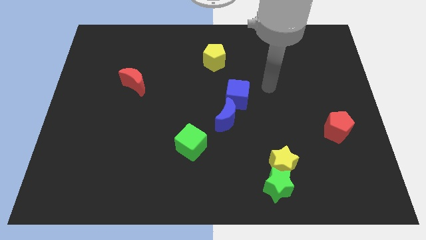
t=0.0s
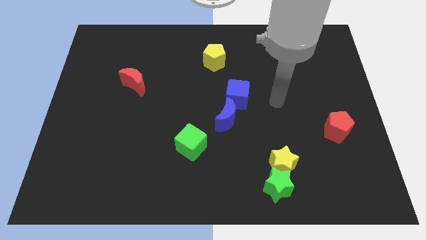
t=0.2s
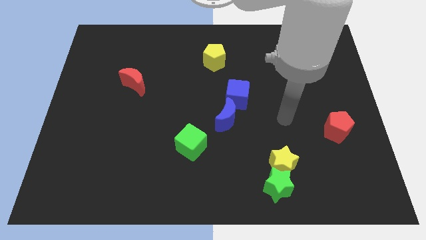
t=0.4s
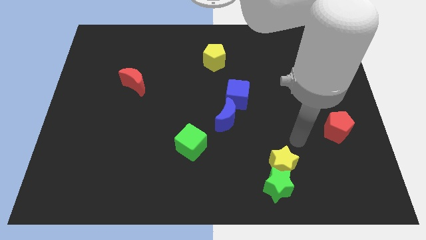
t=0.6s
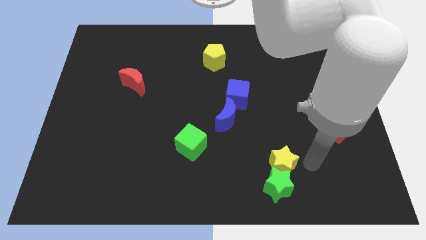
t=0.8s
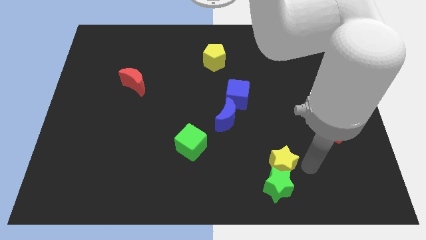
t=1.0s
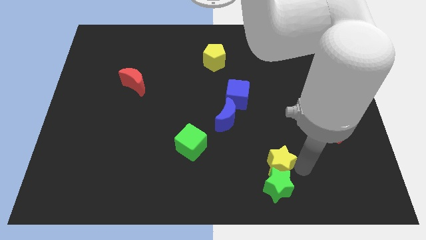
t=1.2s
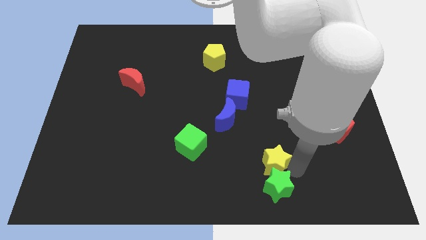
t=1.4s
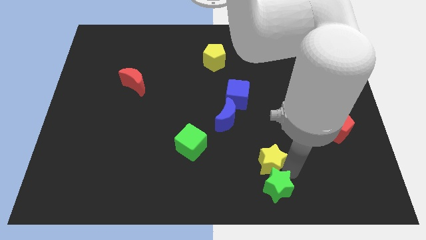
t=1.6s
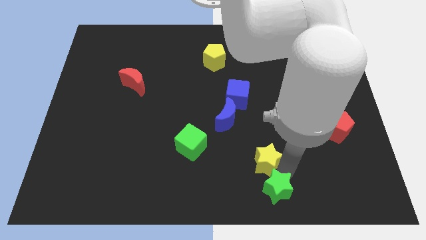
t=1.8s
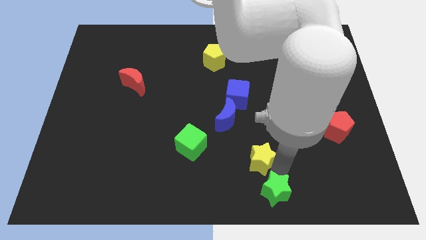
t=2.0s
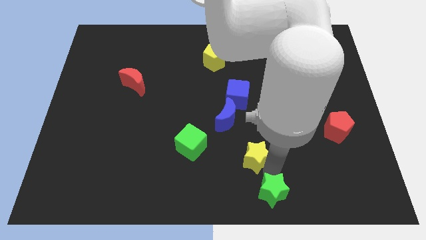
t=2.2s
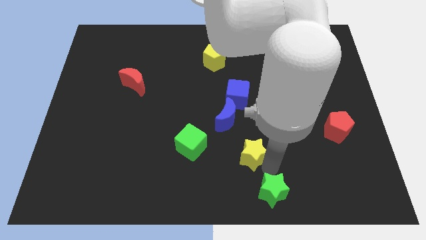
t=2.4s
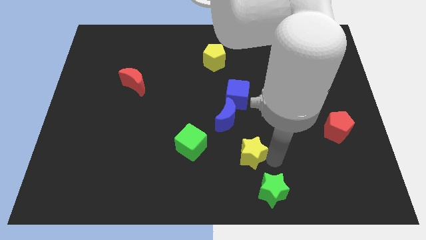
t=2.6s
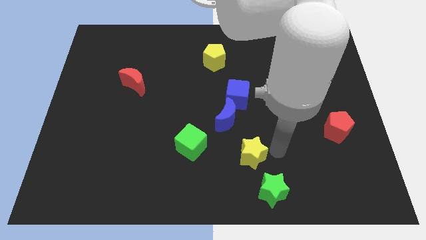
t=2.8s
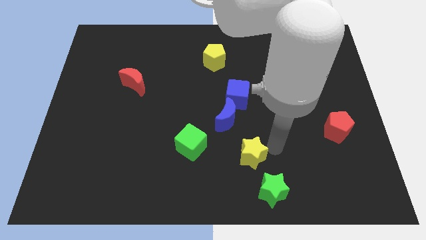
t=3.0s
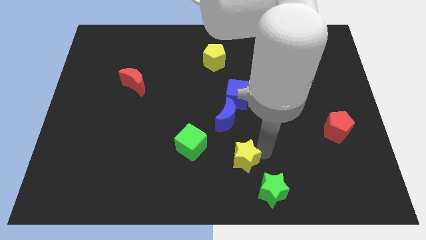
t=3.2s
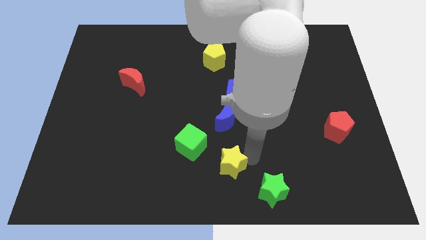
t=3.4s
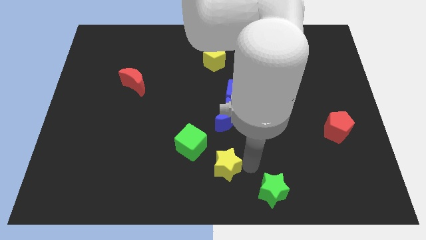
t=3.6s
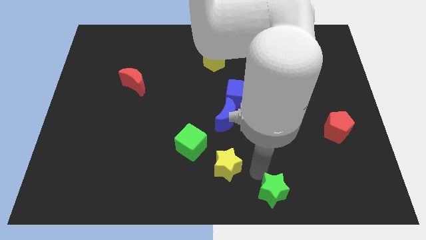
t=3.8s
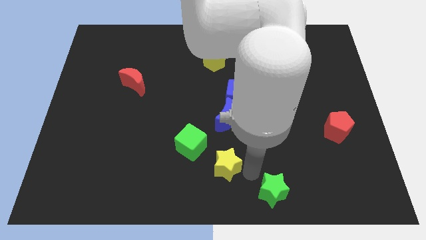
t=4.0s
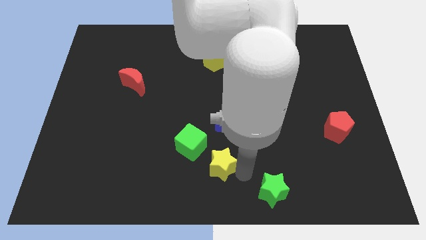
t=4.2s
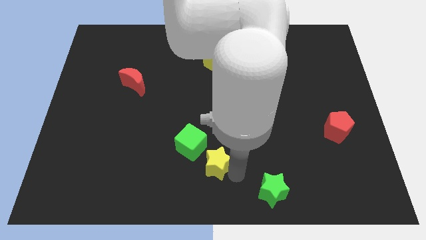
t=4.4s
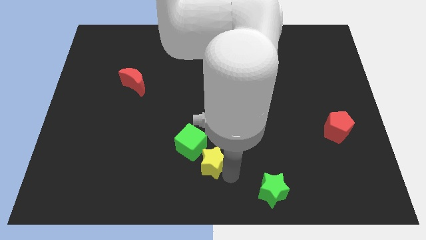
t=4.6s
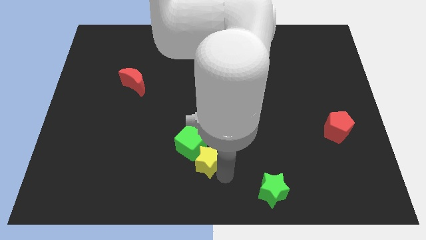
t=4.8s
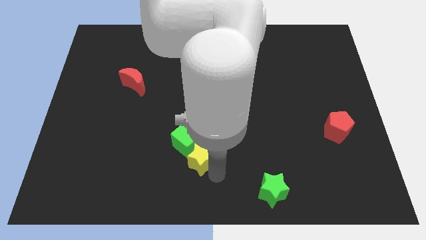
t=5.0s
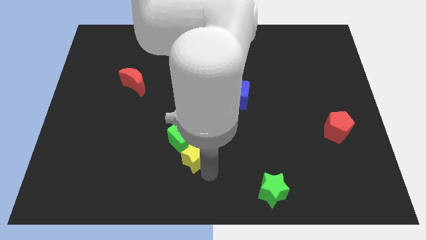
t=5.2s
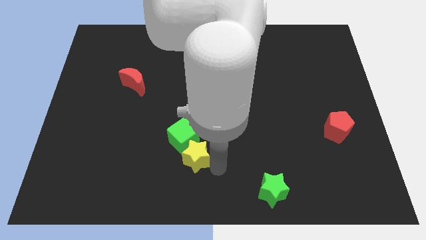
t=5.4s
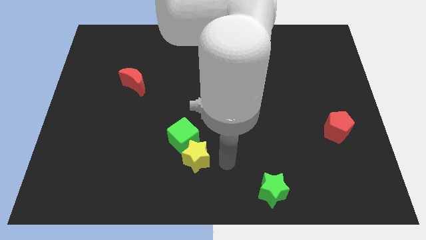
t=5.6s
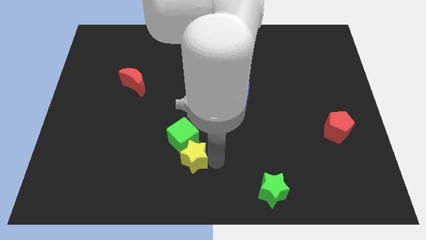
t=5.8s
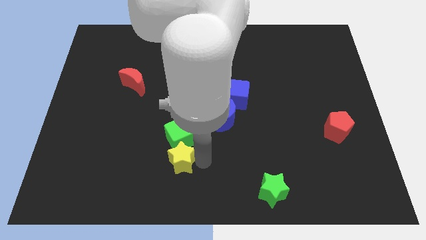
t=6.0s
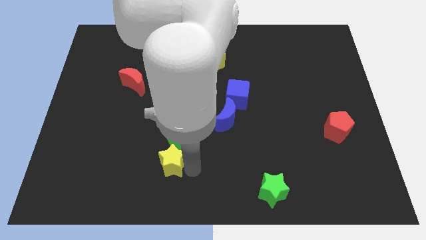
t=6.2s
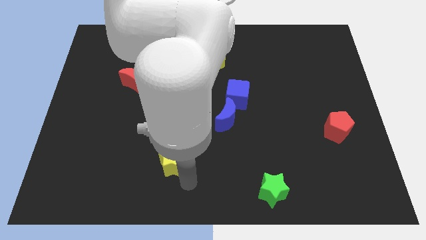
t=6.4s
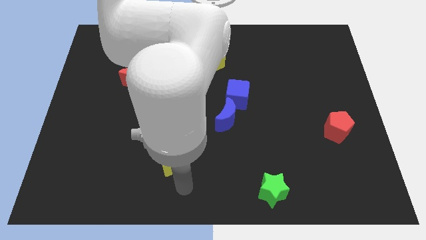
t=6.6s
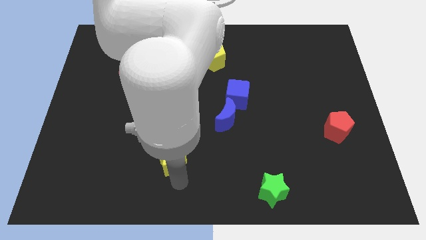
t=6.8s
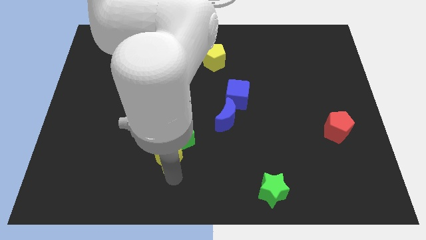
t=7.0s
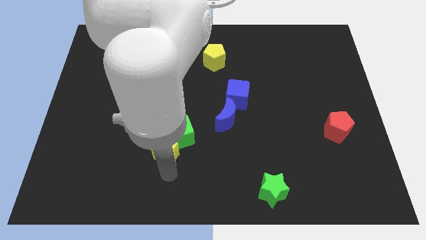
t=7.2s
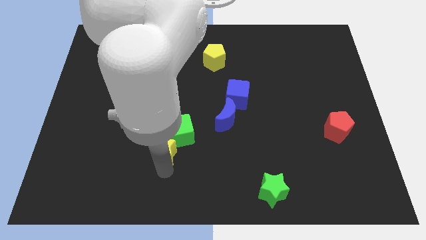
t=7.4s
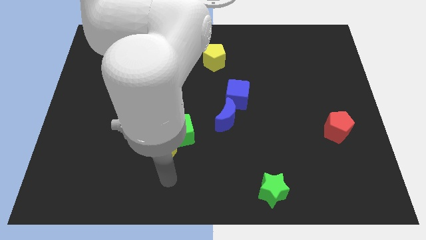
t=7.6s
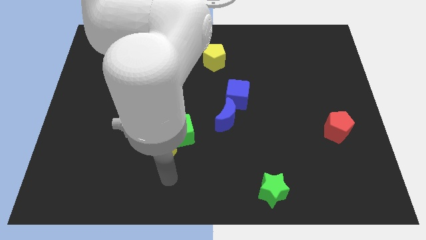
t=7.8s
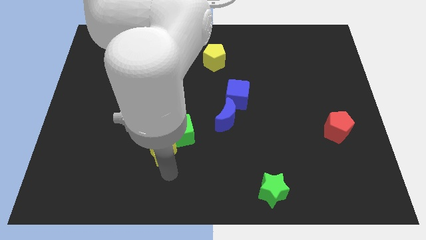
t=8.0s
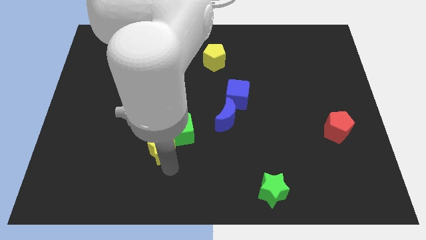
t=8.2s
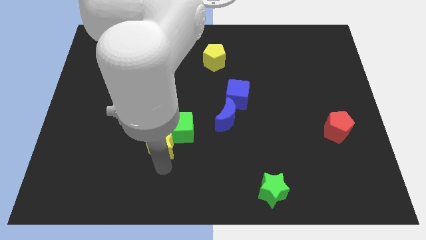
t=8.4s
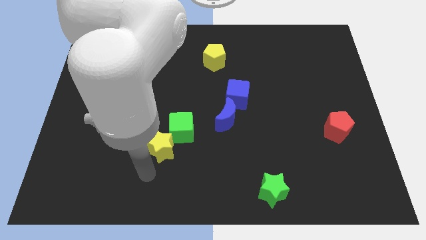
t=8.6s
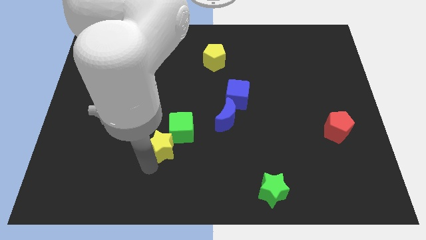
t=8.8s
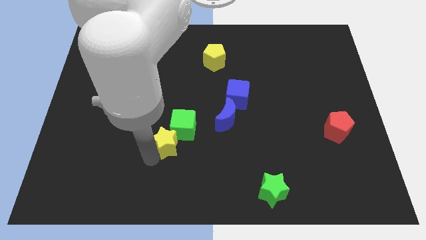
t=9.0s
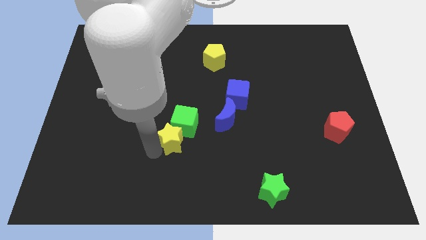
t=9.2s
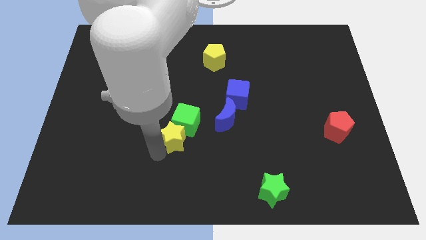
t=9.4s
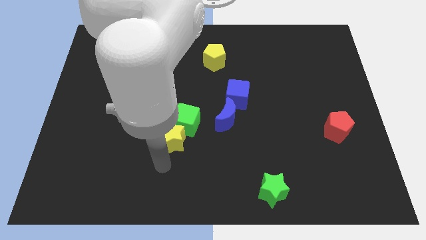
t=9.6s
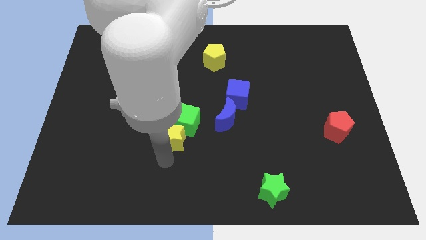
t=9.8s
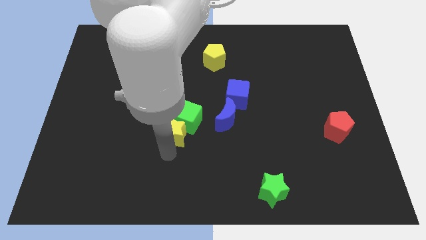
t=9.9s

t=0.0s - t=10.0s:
slide the yellow star to the left of the blue moon

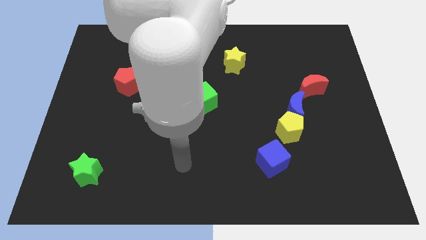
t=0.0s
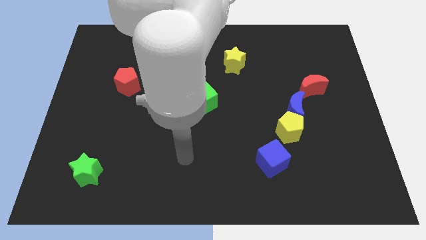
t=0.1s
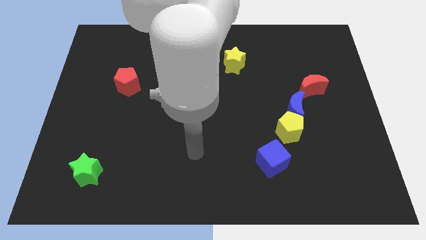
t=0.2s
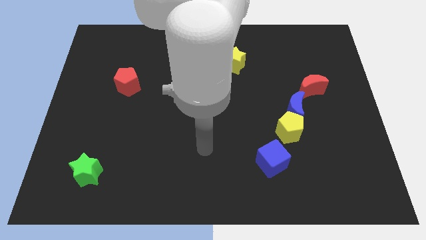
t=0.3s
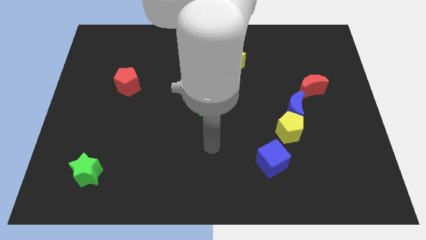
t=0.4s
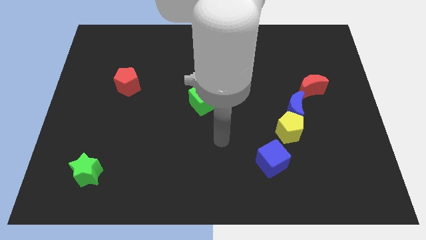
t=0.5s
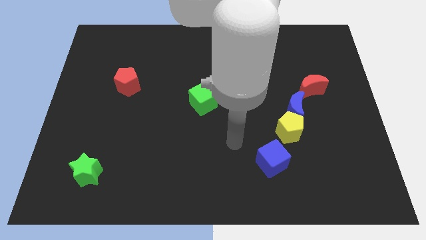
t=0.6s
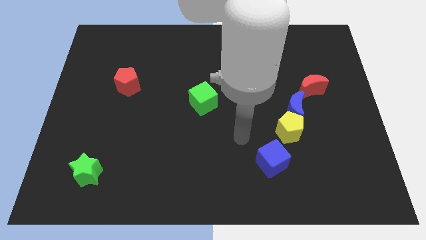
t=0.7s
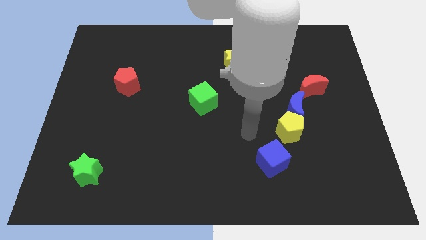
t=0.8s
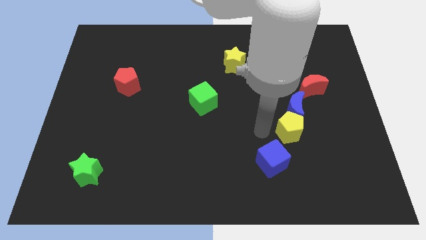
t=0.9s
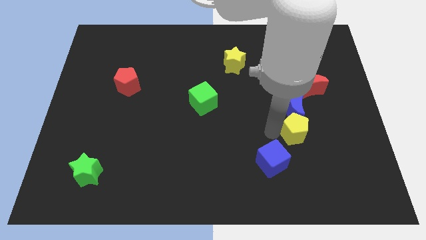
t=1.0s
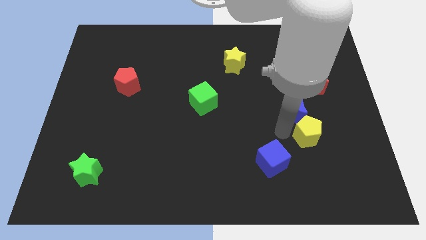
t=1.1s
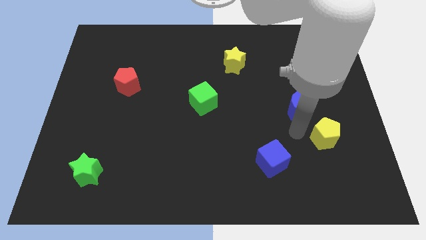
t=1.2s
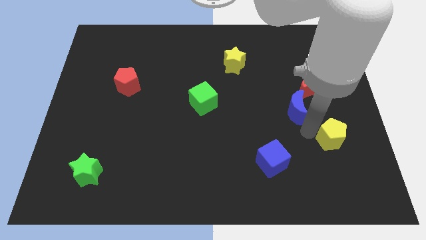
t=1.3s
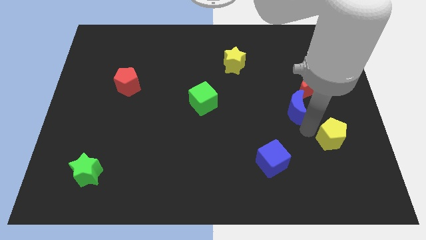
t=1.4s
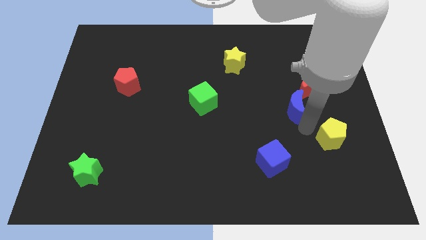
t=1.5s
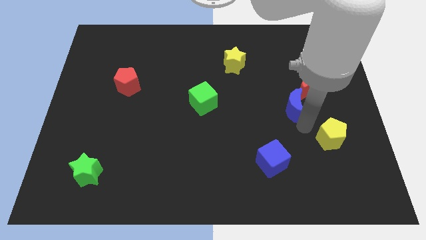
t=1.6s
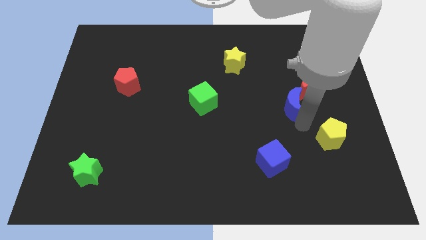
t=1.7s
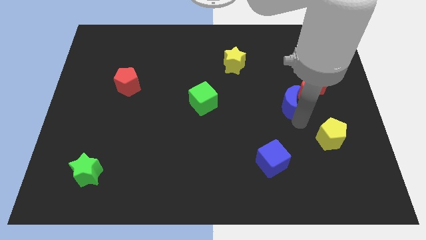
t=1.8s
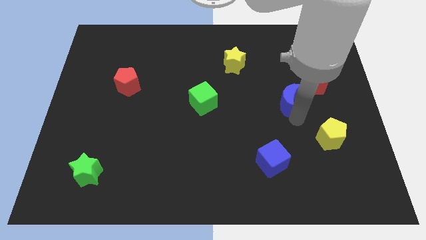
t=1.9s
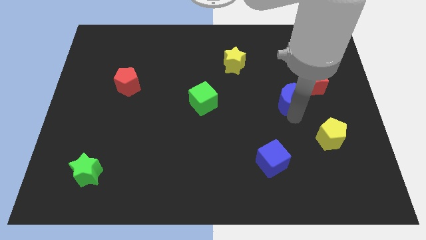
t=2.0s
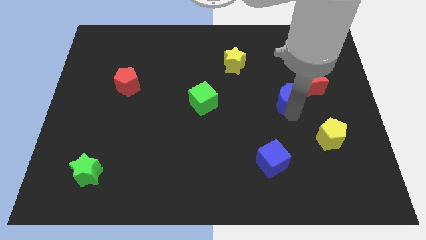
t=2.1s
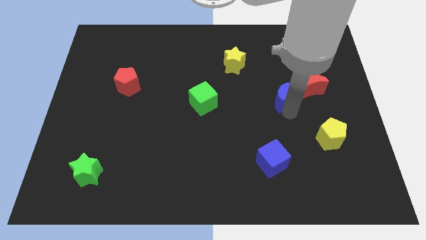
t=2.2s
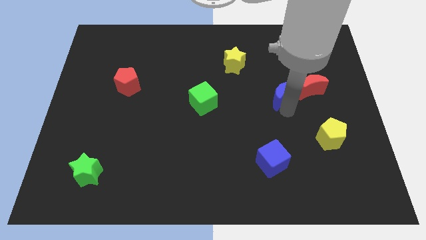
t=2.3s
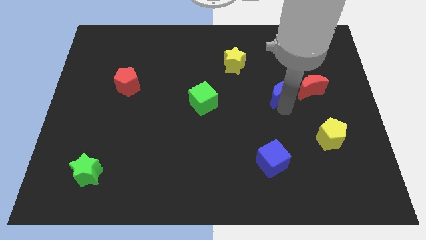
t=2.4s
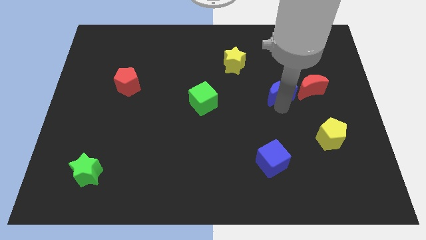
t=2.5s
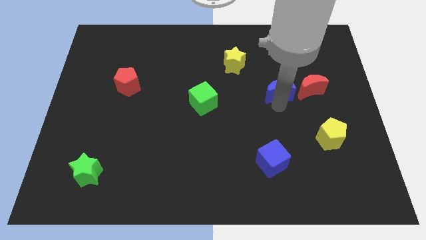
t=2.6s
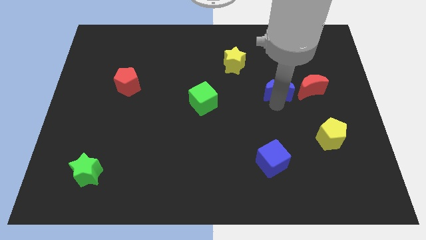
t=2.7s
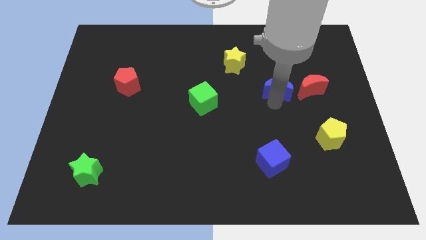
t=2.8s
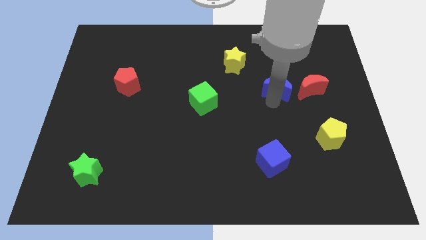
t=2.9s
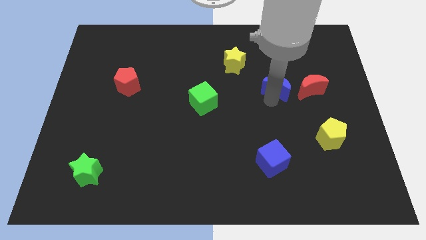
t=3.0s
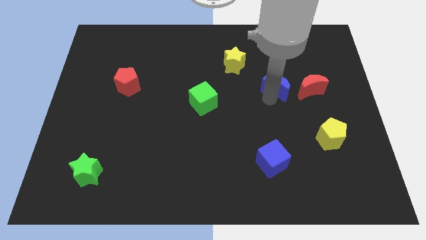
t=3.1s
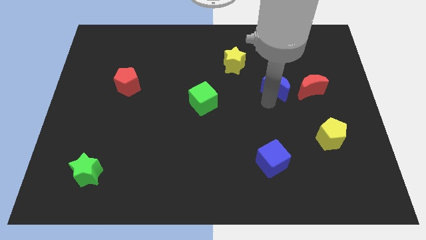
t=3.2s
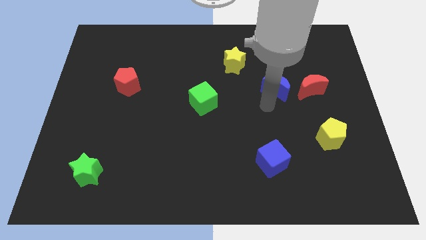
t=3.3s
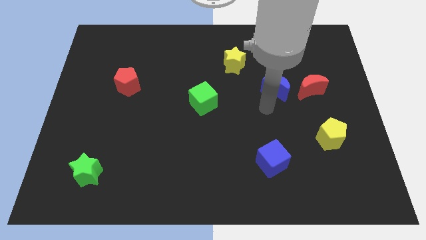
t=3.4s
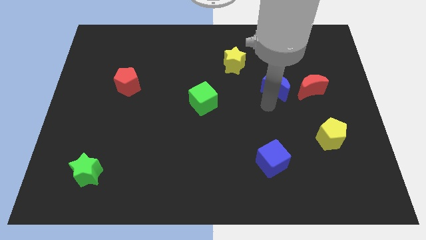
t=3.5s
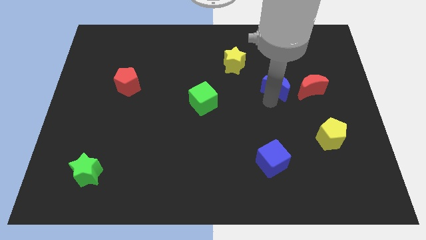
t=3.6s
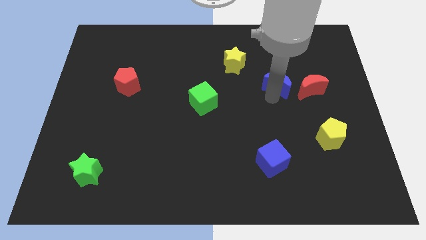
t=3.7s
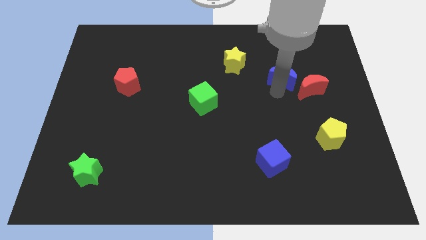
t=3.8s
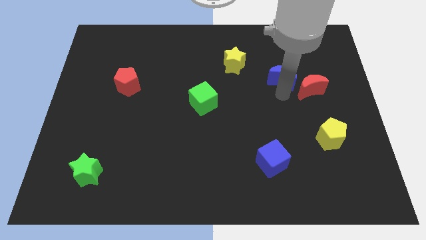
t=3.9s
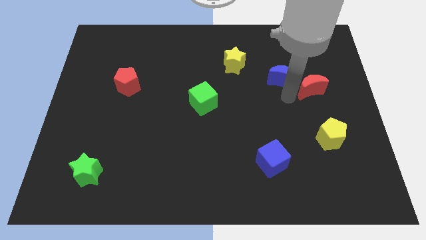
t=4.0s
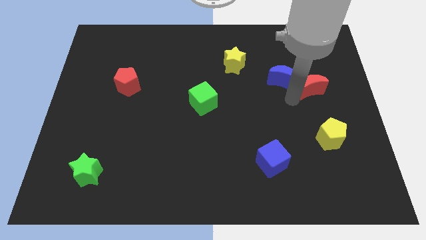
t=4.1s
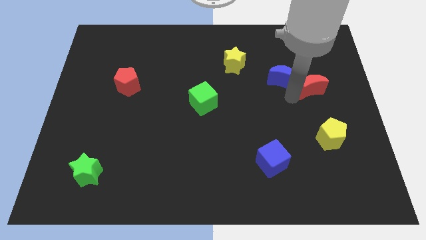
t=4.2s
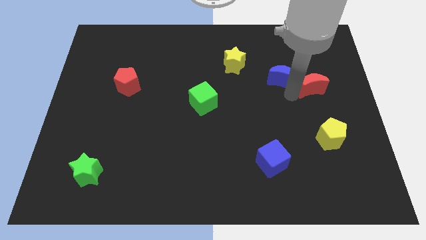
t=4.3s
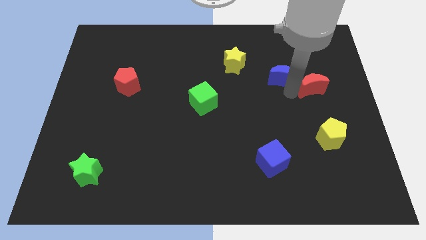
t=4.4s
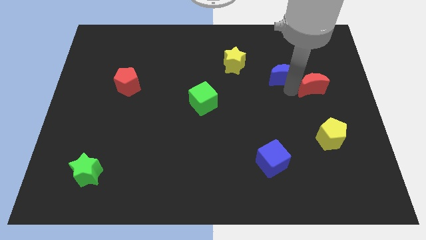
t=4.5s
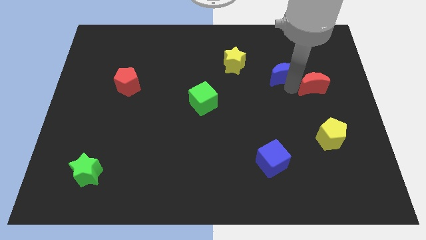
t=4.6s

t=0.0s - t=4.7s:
move the blue moon to the right side of the yellow star
